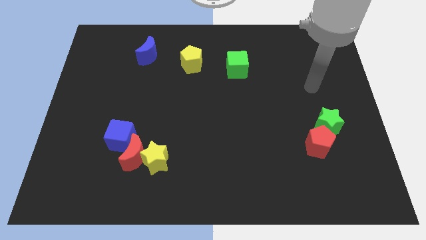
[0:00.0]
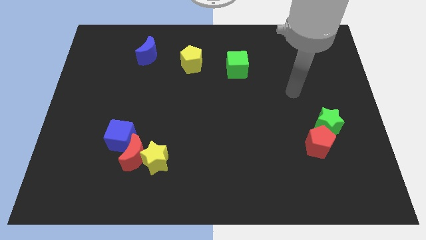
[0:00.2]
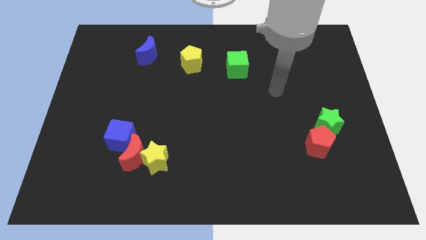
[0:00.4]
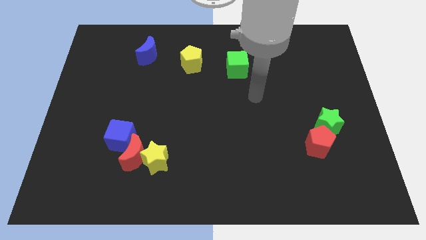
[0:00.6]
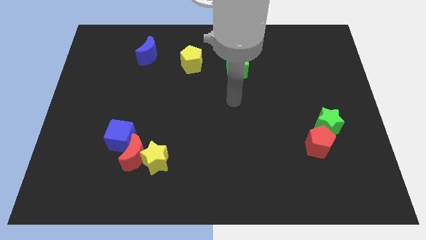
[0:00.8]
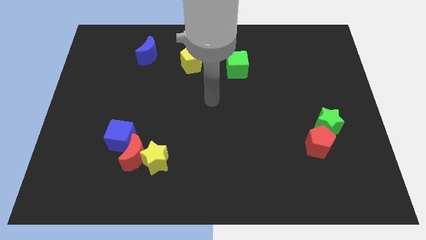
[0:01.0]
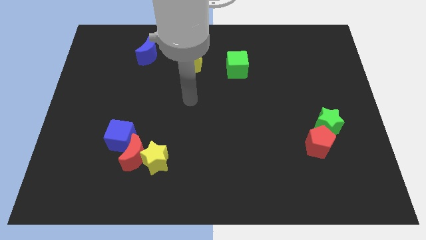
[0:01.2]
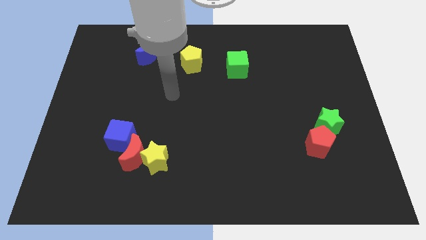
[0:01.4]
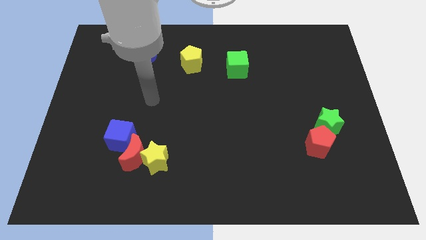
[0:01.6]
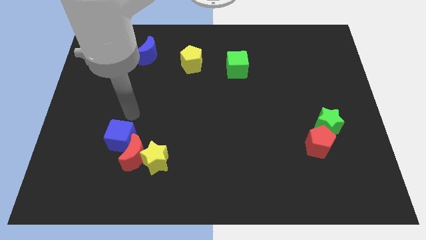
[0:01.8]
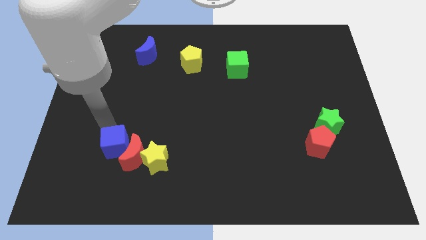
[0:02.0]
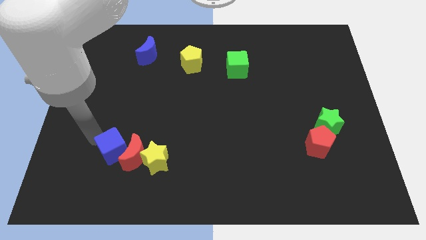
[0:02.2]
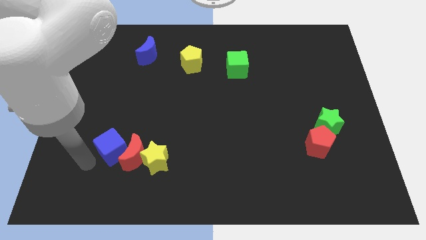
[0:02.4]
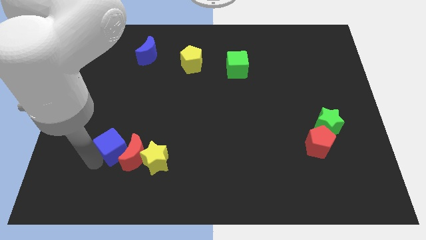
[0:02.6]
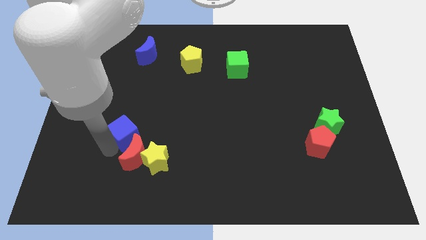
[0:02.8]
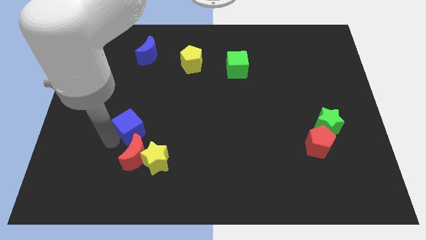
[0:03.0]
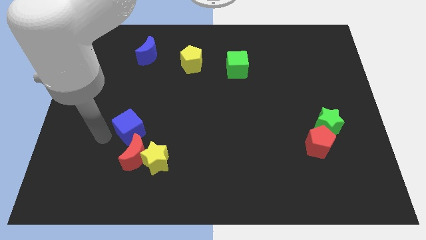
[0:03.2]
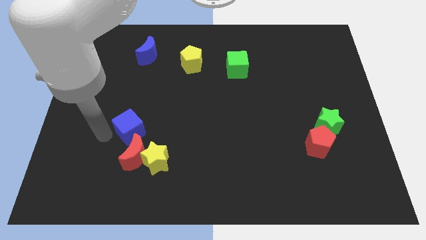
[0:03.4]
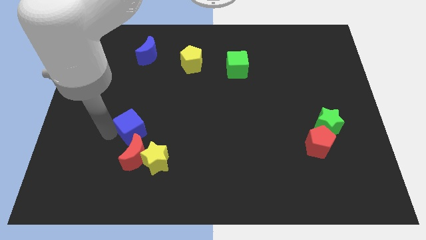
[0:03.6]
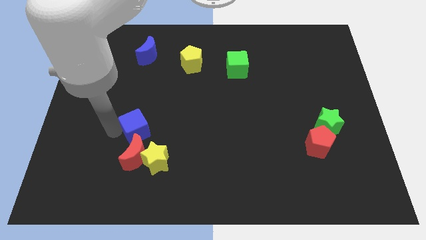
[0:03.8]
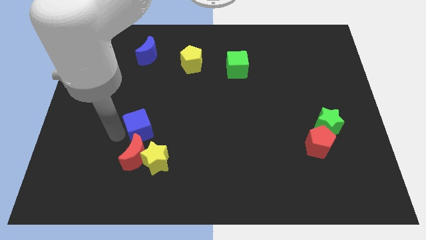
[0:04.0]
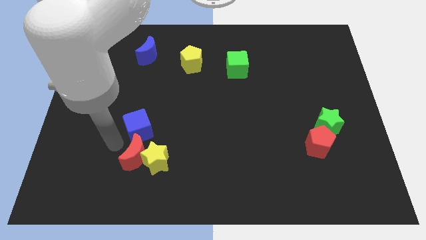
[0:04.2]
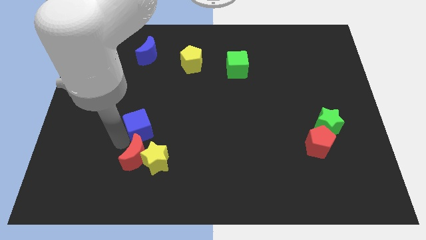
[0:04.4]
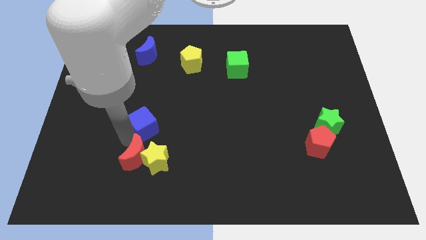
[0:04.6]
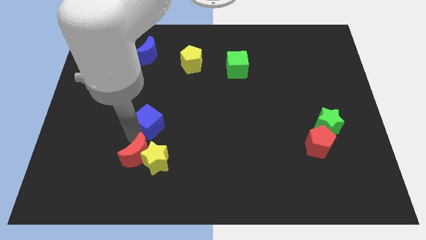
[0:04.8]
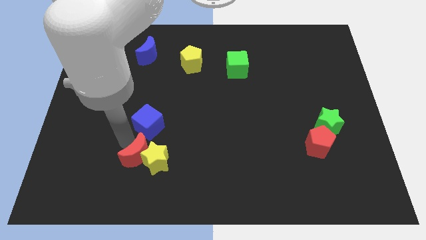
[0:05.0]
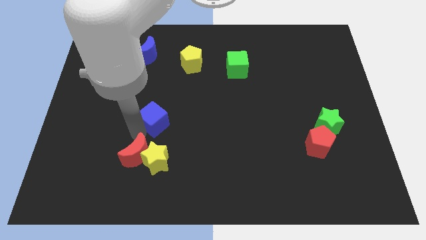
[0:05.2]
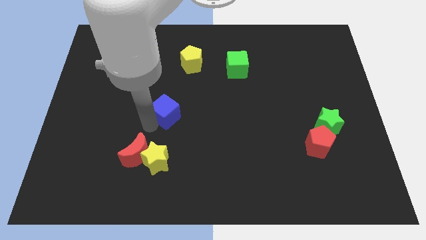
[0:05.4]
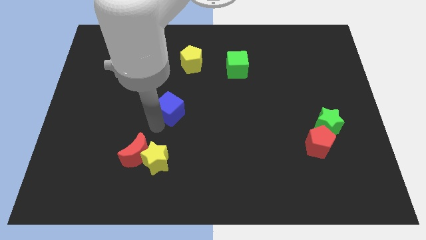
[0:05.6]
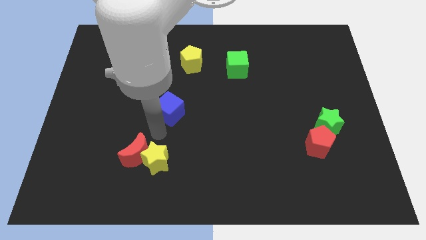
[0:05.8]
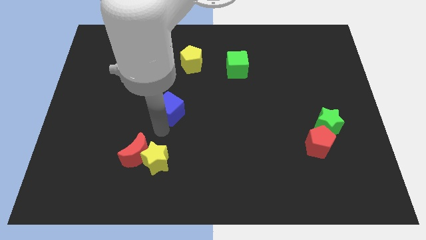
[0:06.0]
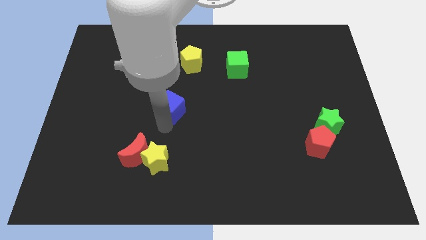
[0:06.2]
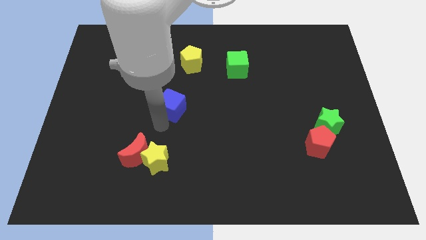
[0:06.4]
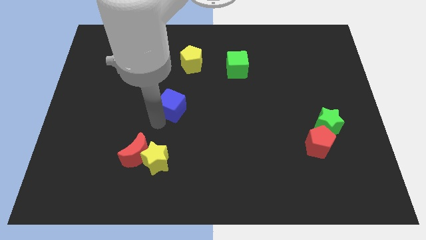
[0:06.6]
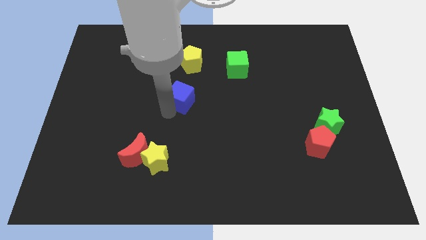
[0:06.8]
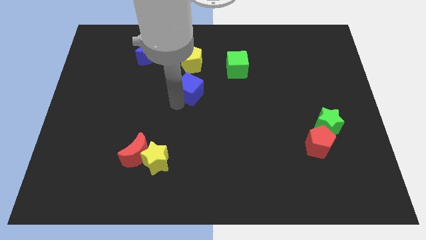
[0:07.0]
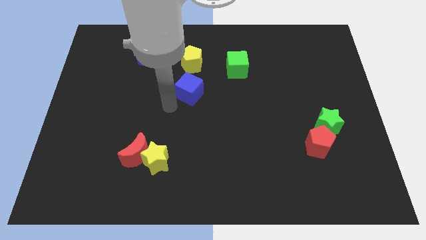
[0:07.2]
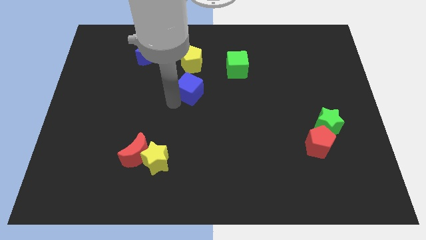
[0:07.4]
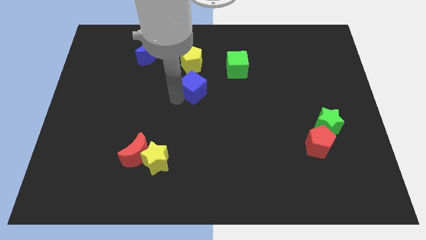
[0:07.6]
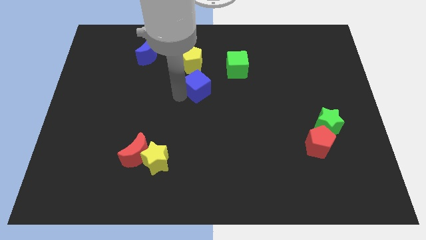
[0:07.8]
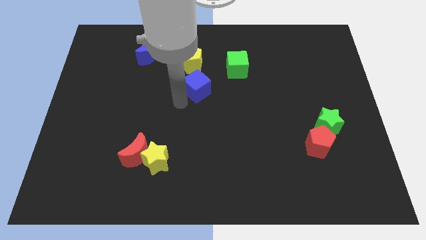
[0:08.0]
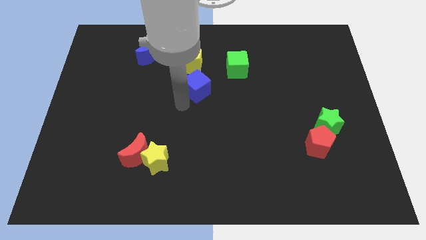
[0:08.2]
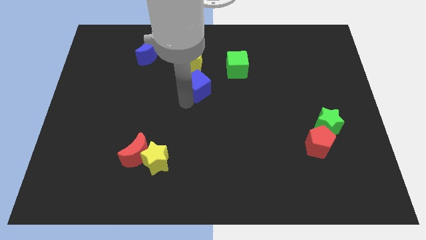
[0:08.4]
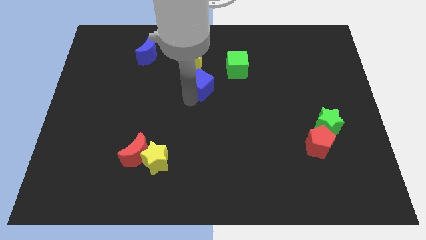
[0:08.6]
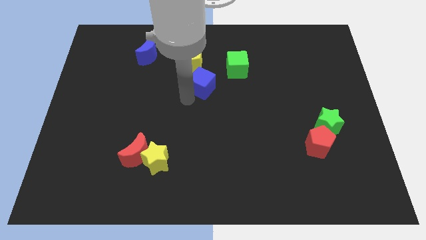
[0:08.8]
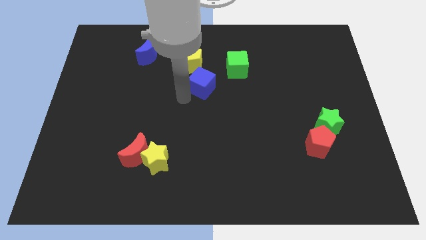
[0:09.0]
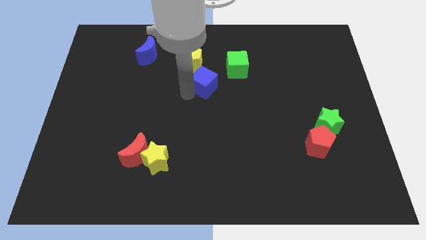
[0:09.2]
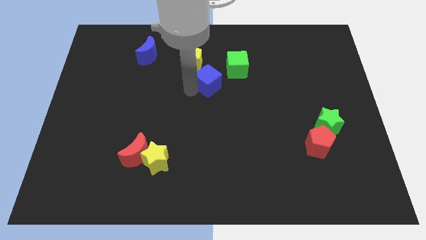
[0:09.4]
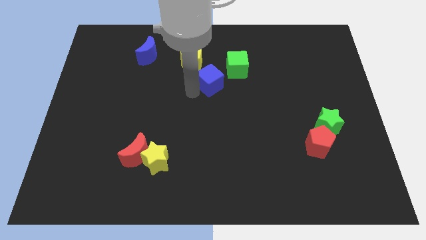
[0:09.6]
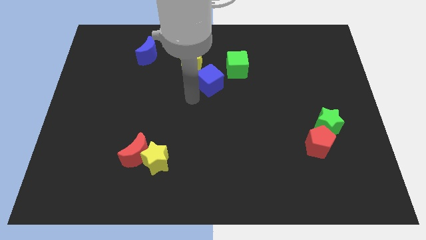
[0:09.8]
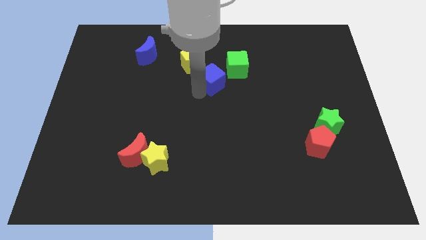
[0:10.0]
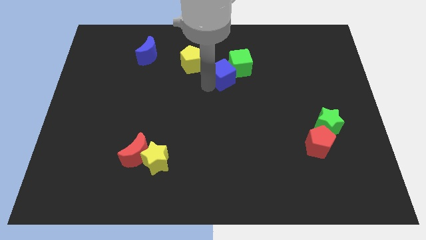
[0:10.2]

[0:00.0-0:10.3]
slide the blue cube towards the green cube

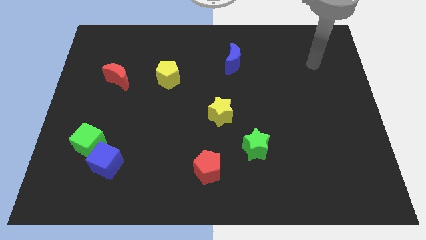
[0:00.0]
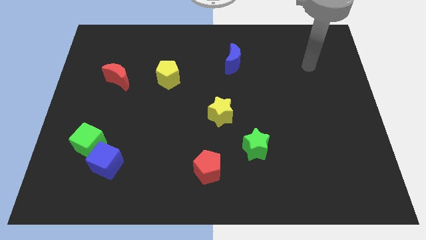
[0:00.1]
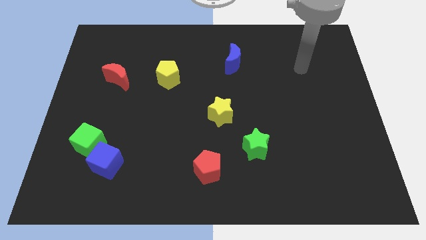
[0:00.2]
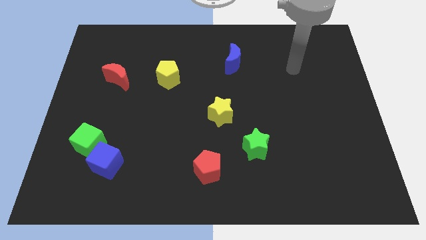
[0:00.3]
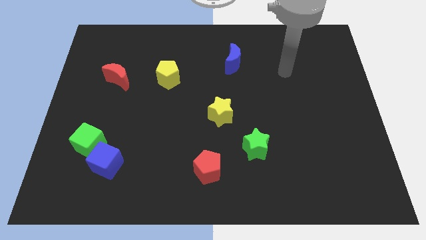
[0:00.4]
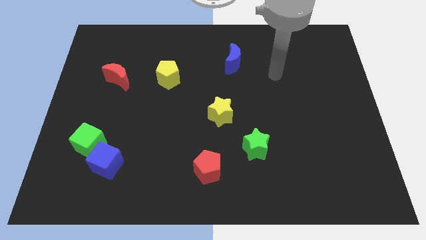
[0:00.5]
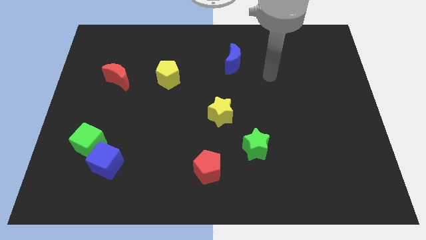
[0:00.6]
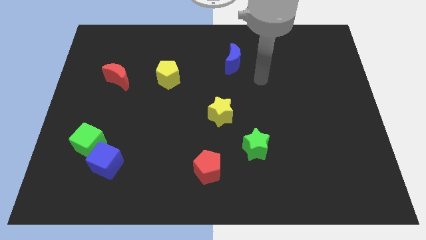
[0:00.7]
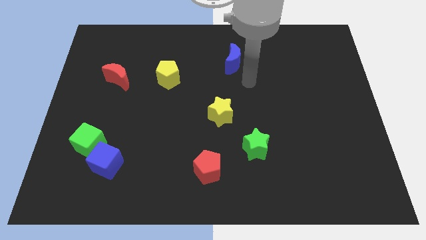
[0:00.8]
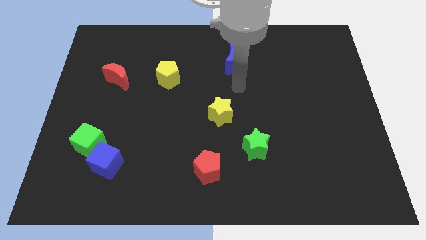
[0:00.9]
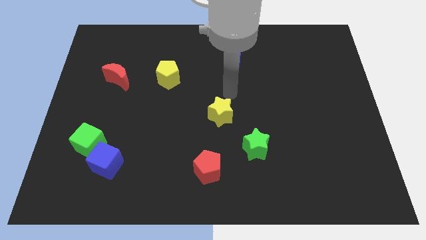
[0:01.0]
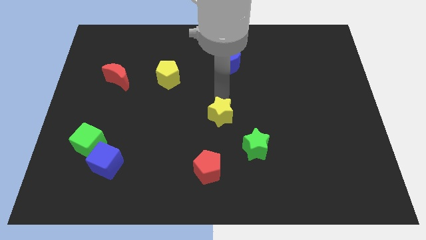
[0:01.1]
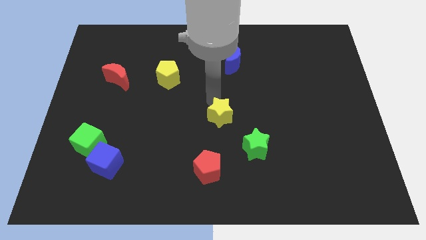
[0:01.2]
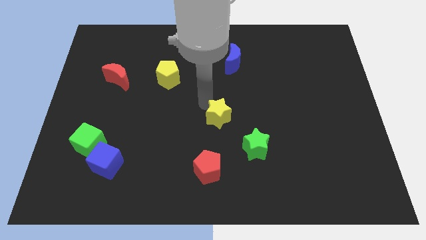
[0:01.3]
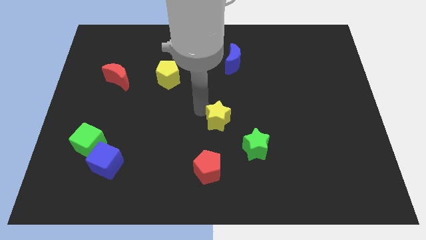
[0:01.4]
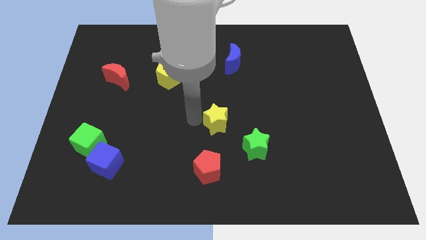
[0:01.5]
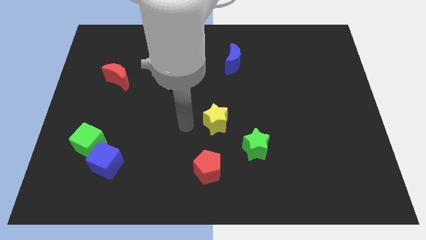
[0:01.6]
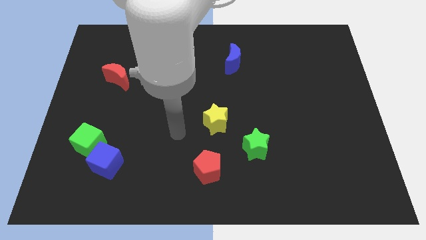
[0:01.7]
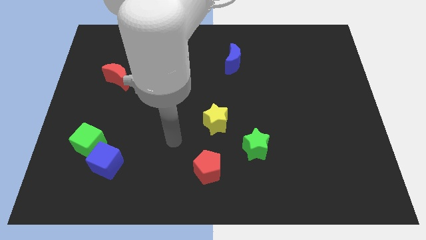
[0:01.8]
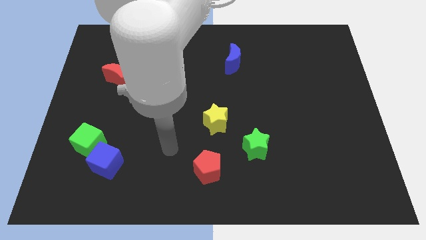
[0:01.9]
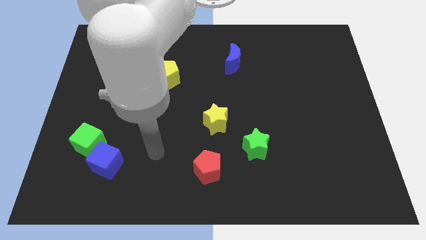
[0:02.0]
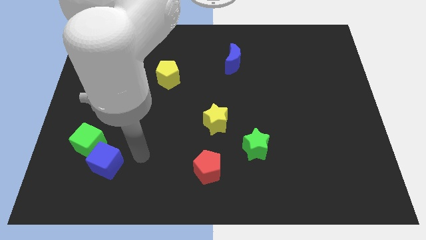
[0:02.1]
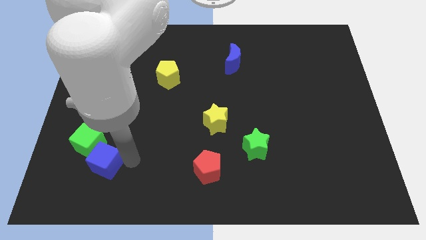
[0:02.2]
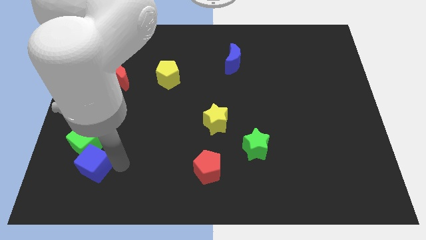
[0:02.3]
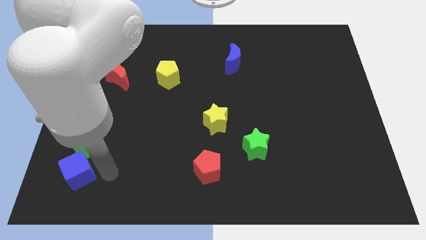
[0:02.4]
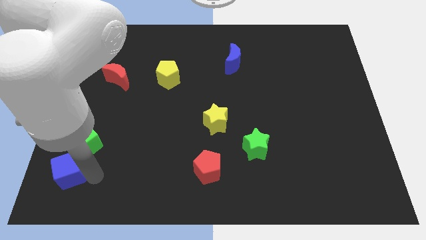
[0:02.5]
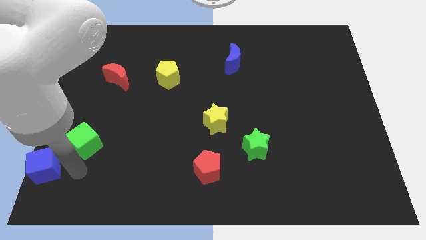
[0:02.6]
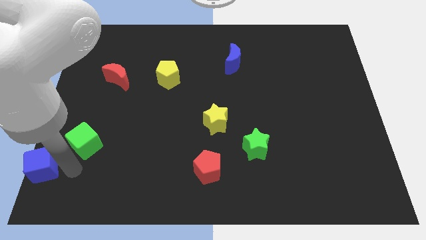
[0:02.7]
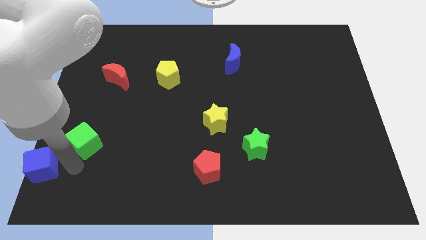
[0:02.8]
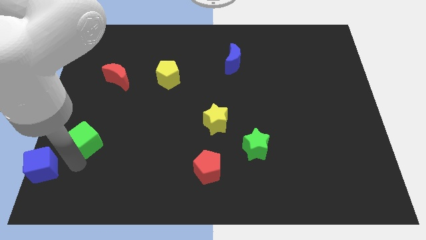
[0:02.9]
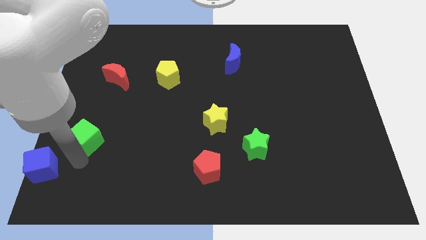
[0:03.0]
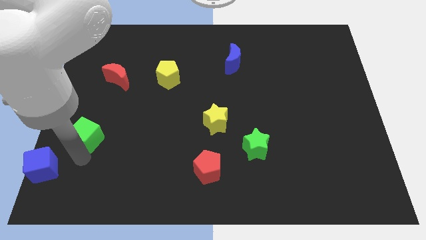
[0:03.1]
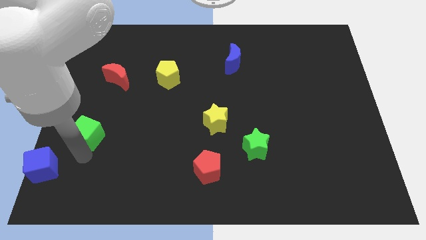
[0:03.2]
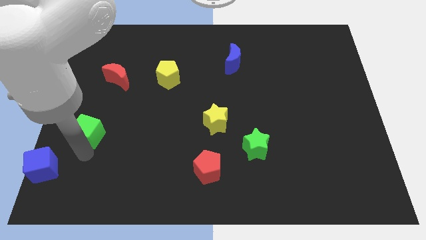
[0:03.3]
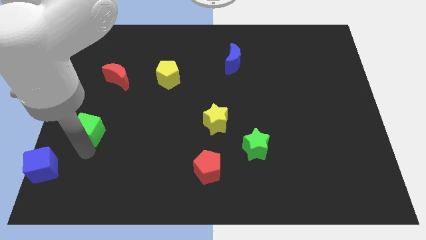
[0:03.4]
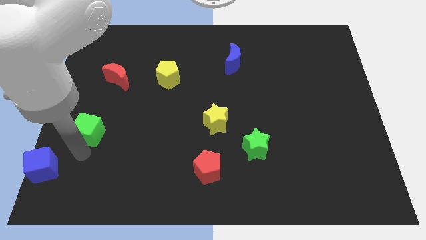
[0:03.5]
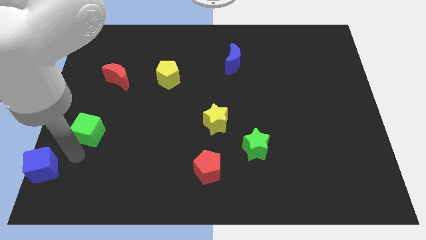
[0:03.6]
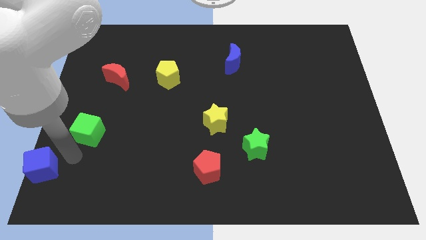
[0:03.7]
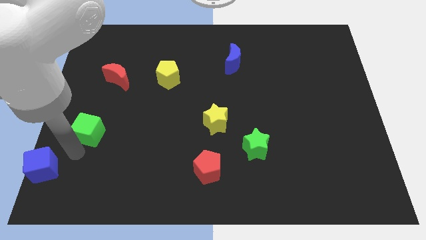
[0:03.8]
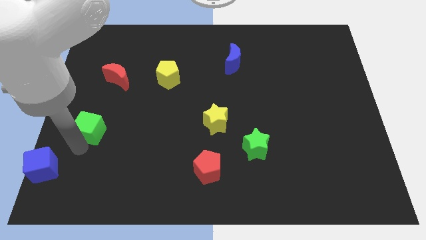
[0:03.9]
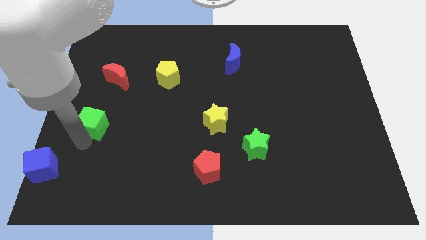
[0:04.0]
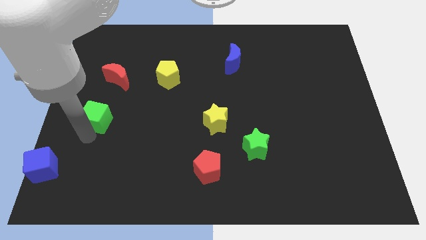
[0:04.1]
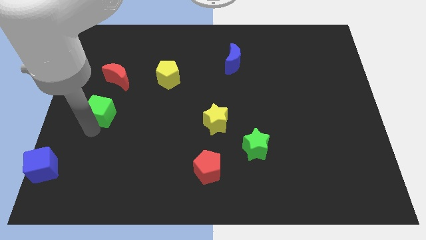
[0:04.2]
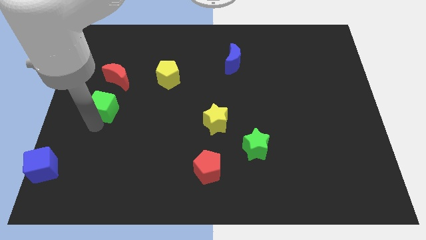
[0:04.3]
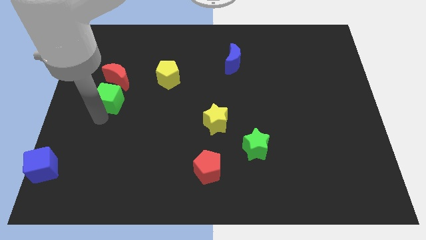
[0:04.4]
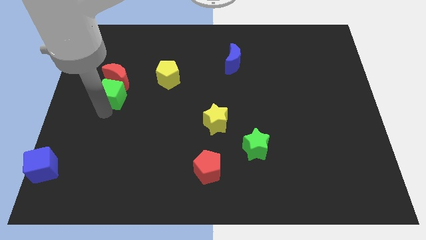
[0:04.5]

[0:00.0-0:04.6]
push the green cube to the red moon
